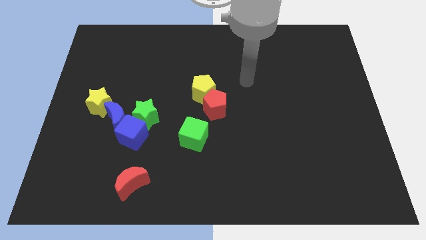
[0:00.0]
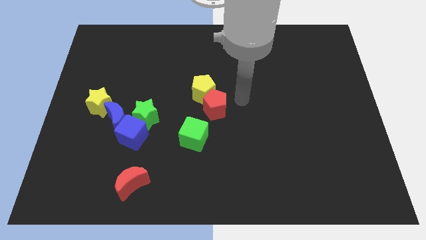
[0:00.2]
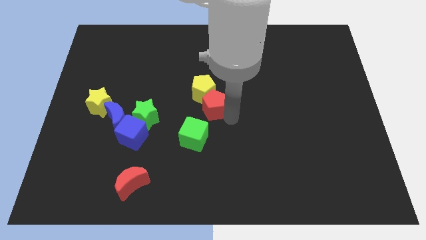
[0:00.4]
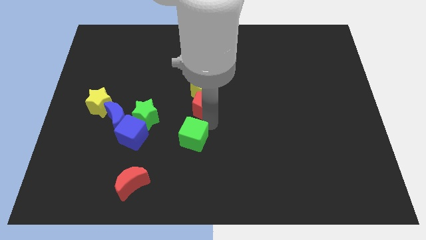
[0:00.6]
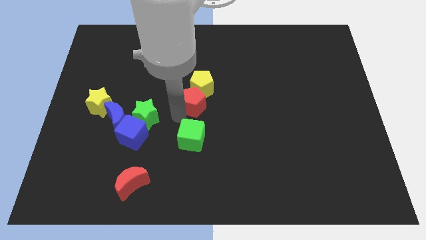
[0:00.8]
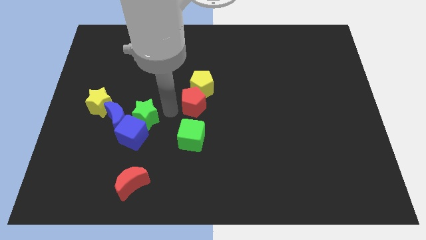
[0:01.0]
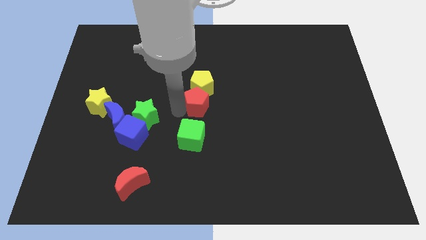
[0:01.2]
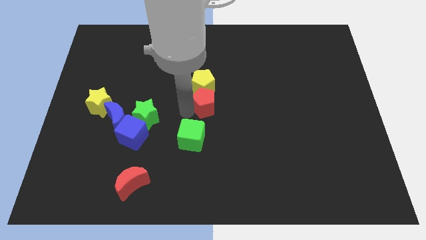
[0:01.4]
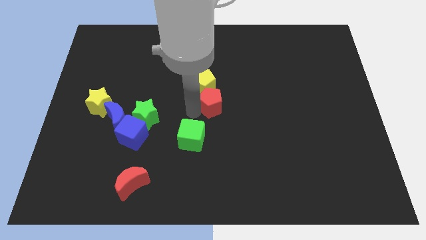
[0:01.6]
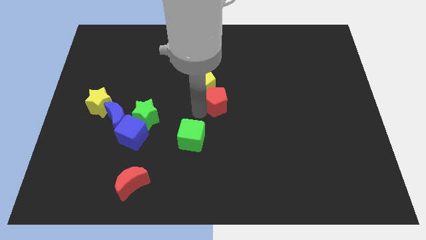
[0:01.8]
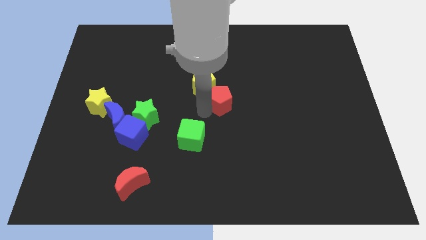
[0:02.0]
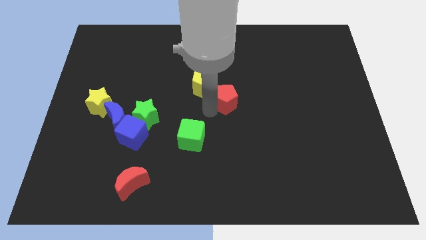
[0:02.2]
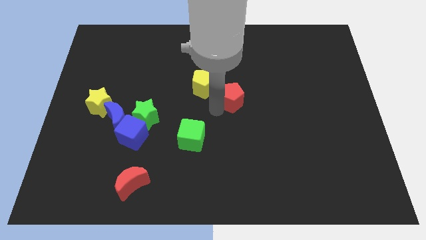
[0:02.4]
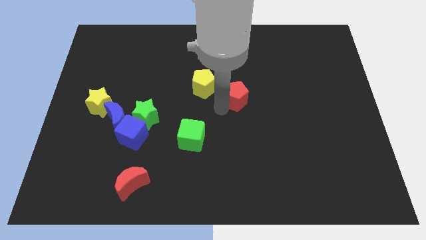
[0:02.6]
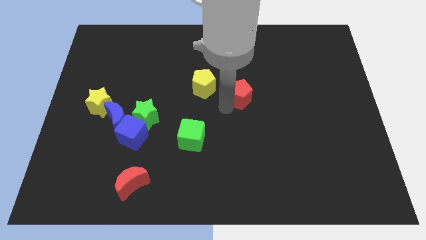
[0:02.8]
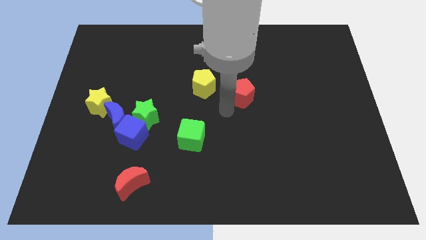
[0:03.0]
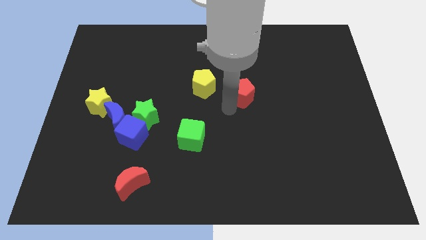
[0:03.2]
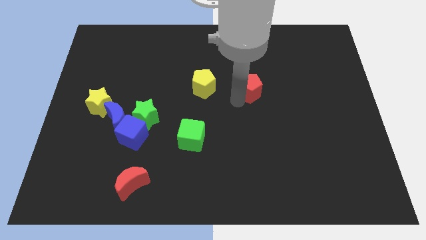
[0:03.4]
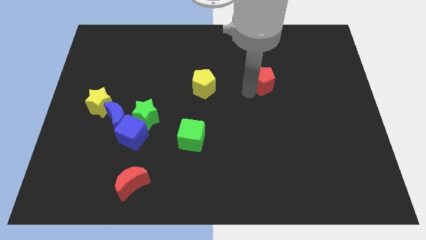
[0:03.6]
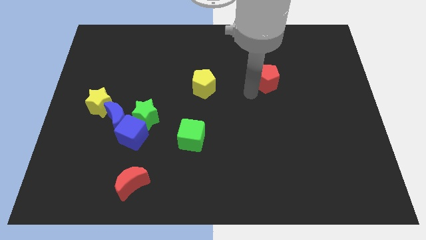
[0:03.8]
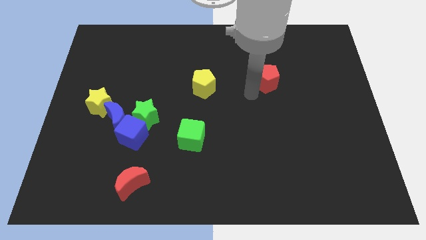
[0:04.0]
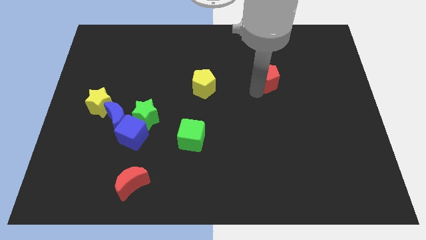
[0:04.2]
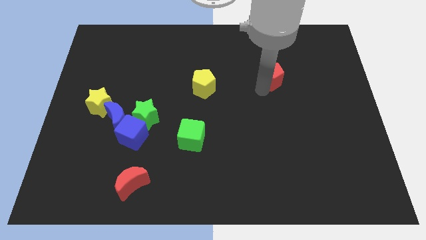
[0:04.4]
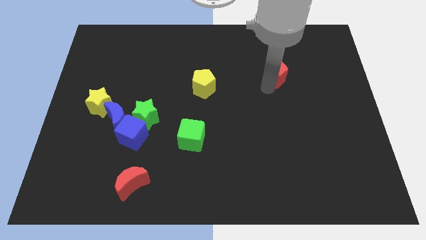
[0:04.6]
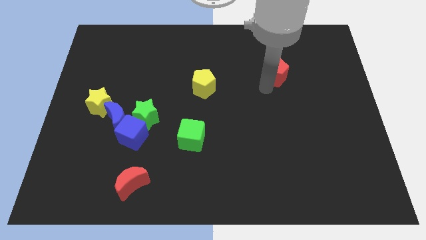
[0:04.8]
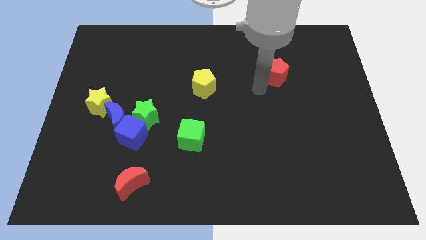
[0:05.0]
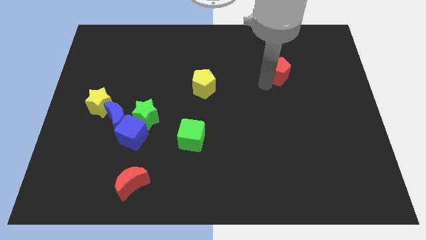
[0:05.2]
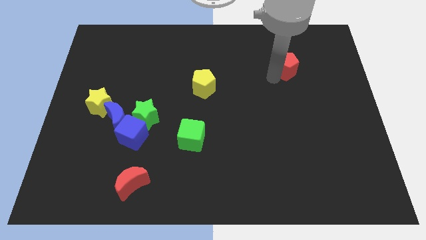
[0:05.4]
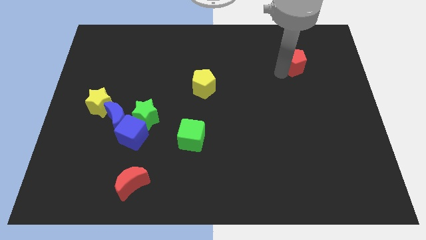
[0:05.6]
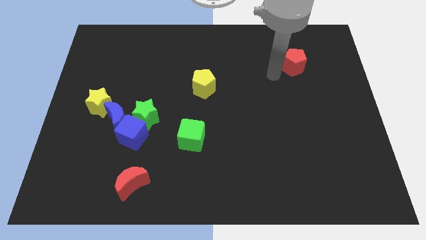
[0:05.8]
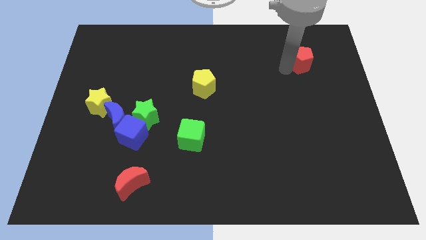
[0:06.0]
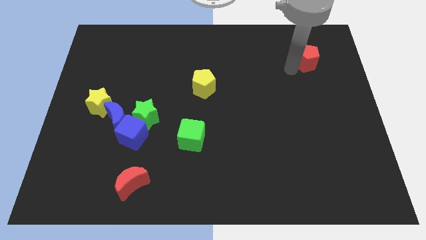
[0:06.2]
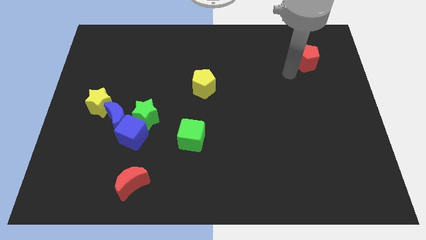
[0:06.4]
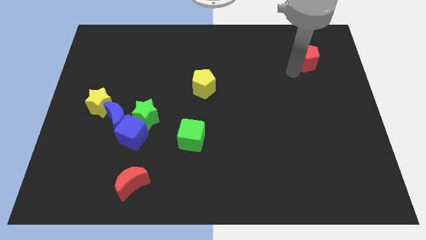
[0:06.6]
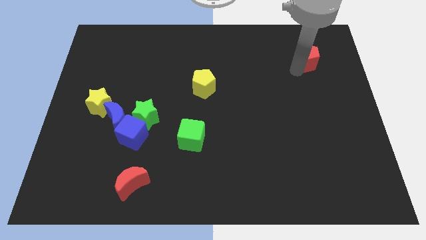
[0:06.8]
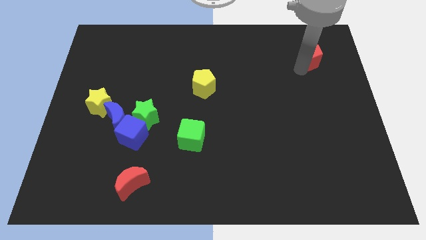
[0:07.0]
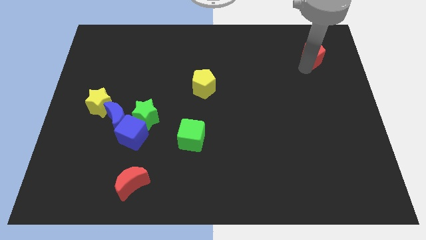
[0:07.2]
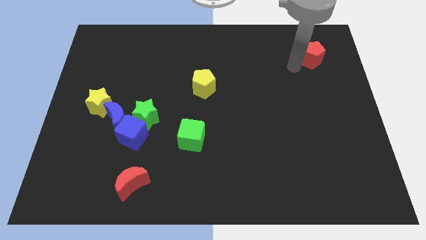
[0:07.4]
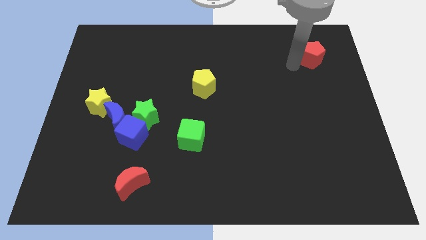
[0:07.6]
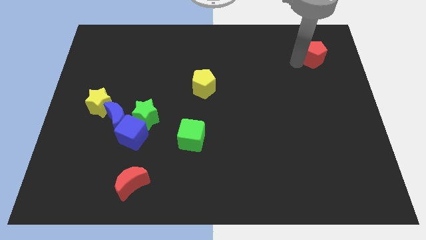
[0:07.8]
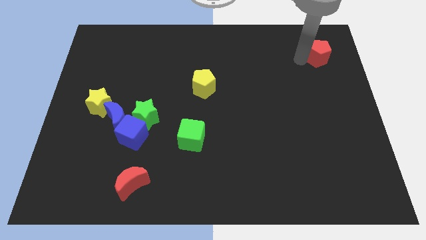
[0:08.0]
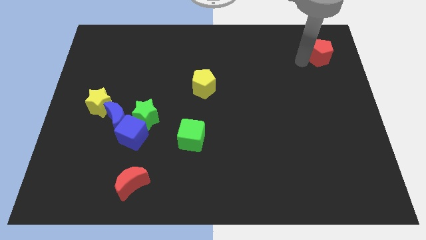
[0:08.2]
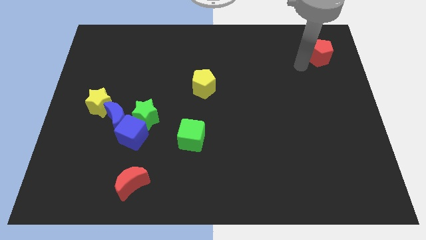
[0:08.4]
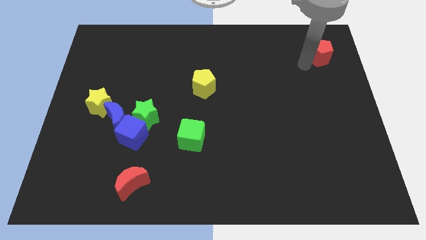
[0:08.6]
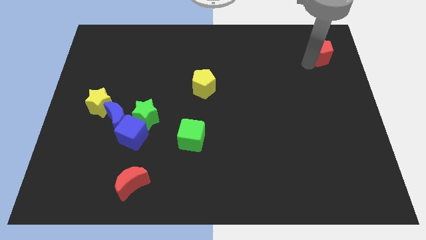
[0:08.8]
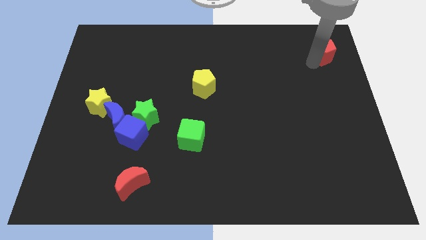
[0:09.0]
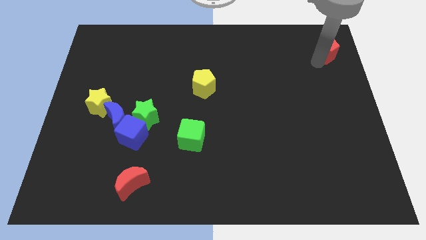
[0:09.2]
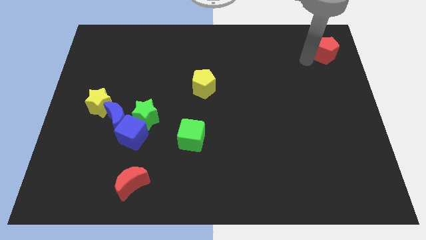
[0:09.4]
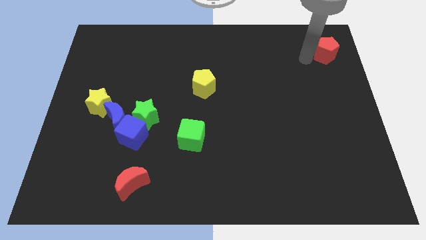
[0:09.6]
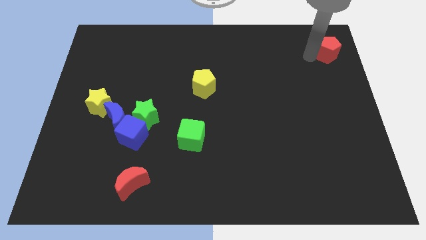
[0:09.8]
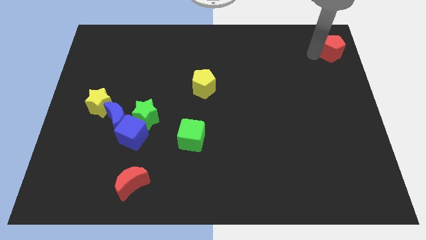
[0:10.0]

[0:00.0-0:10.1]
slide the red pentagon to the top right corner
